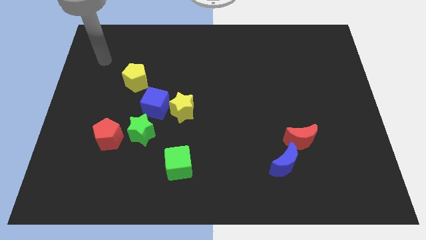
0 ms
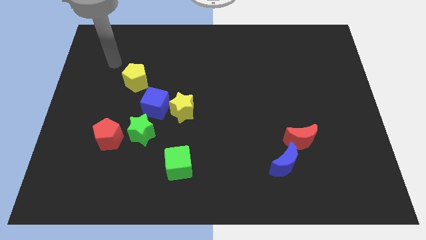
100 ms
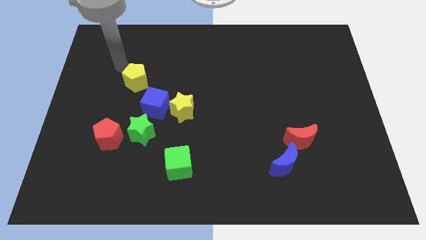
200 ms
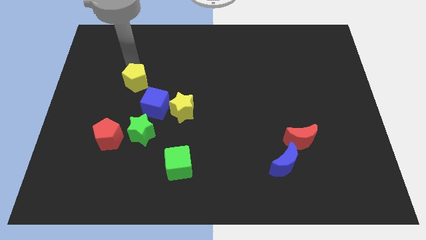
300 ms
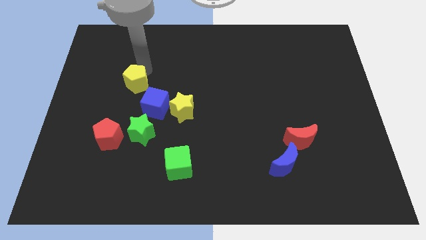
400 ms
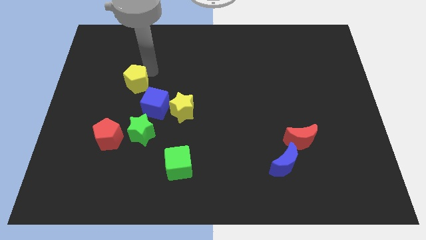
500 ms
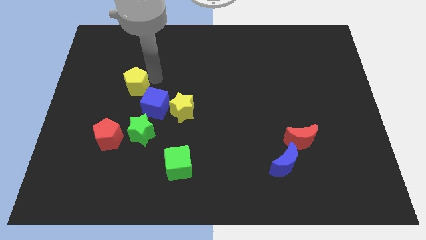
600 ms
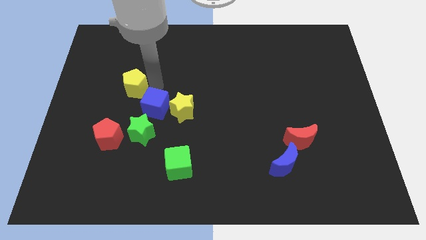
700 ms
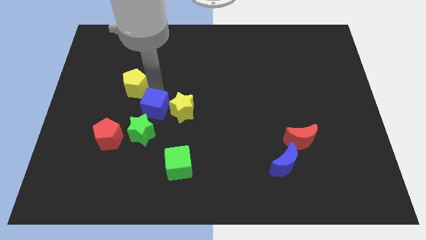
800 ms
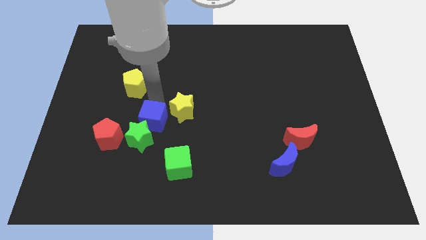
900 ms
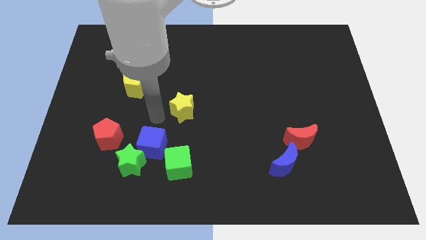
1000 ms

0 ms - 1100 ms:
move the yellow star away from the blue cube

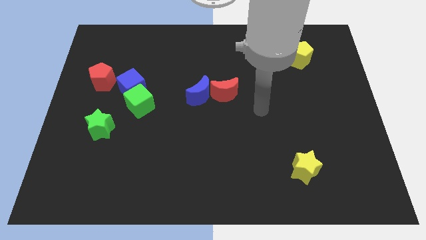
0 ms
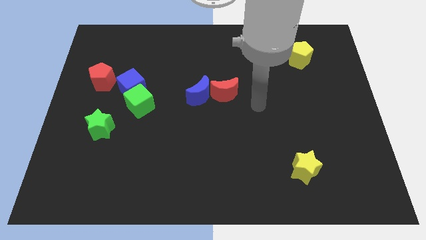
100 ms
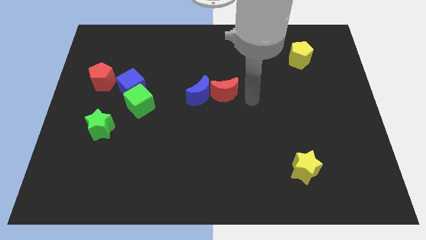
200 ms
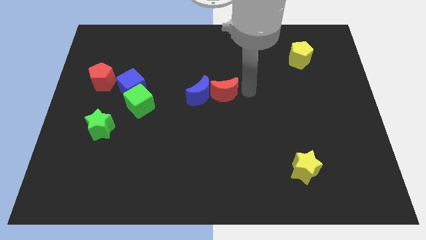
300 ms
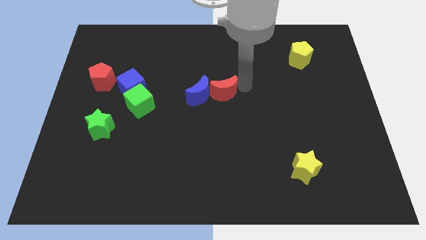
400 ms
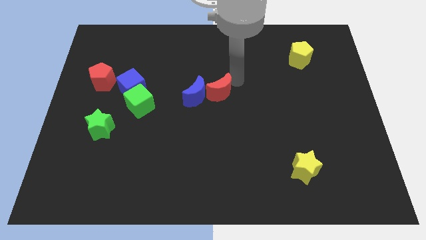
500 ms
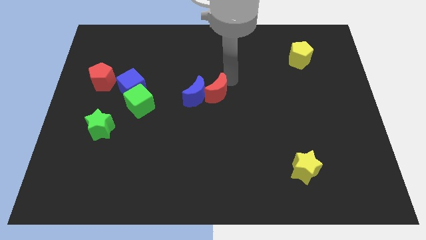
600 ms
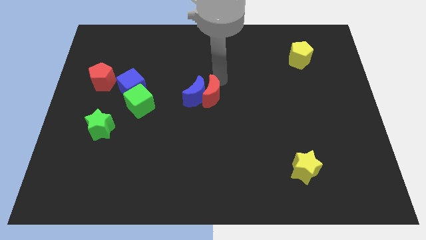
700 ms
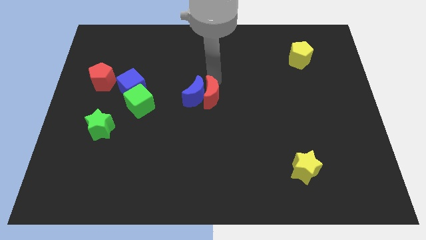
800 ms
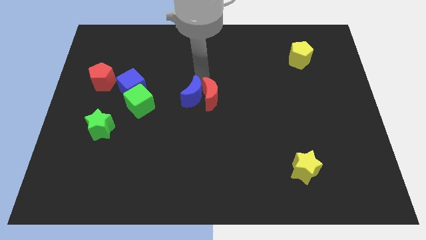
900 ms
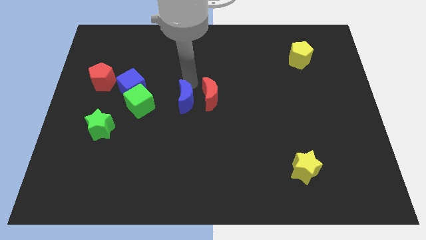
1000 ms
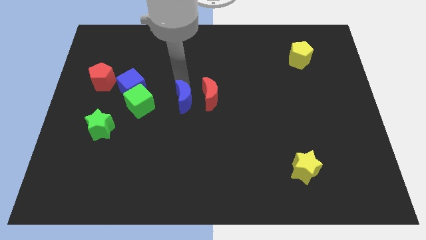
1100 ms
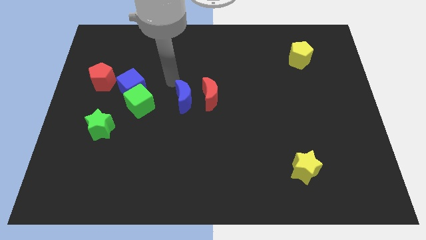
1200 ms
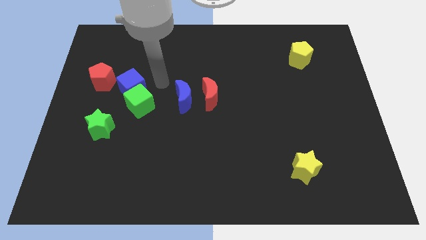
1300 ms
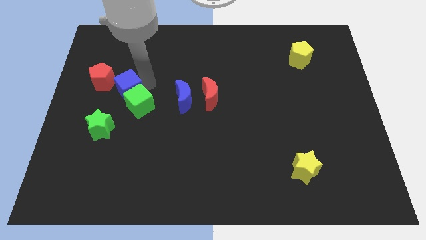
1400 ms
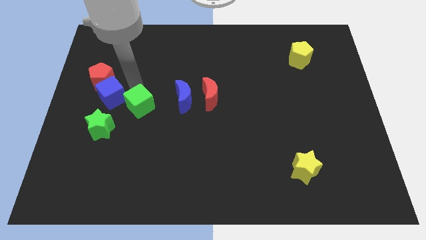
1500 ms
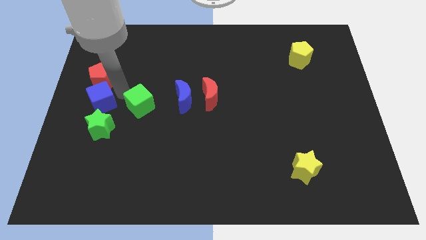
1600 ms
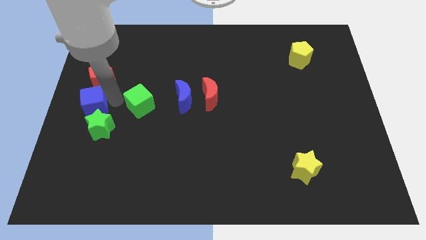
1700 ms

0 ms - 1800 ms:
separate the green cube from the blue cube

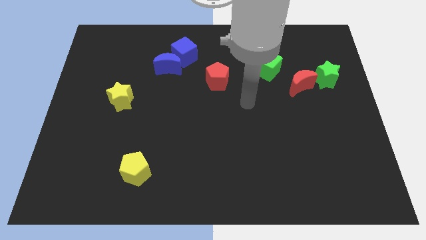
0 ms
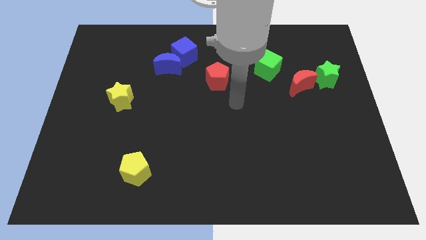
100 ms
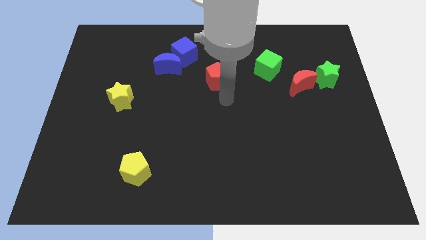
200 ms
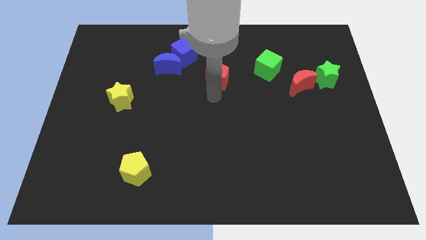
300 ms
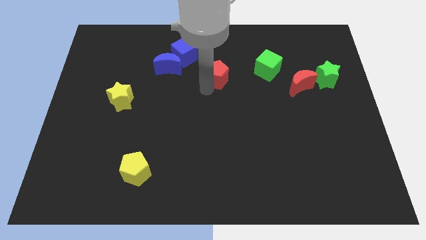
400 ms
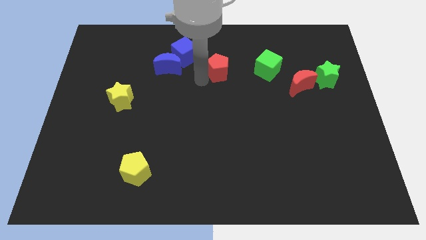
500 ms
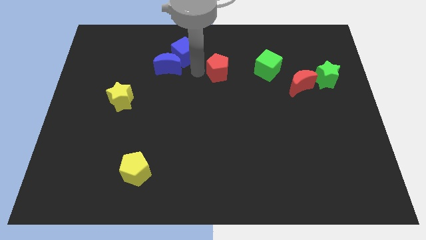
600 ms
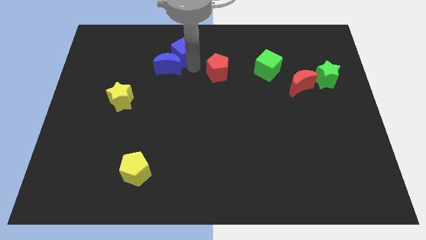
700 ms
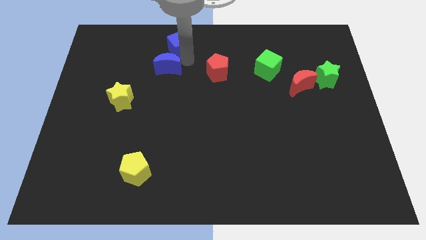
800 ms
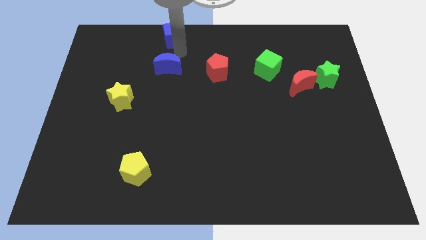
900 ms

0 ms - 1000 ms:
pull the blue moon apart from the blue cube

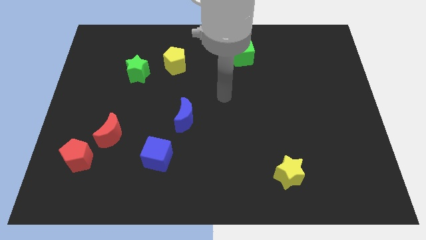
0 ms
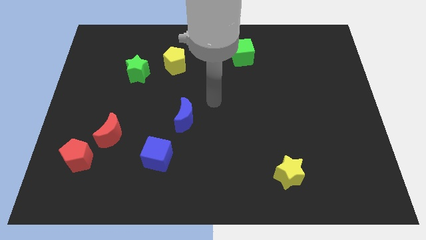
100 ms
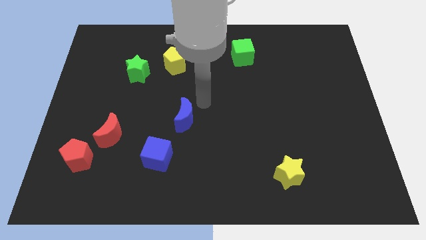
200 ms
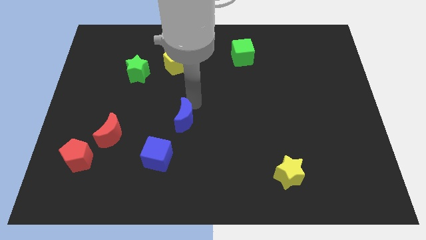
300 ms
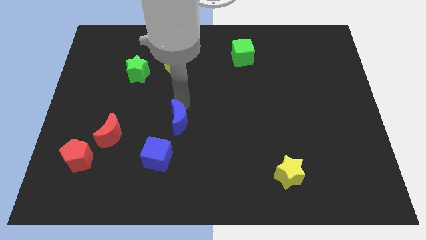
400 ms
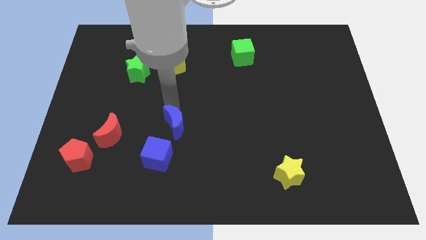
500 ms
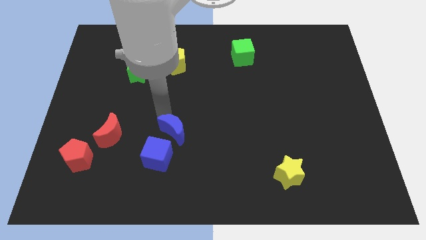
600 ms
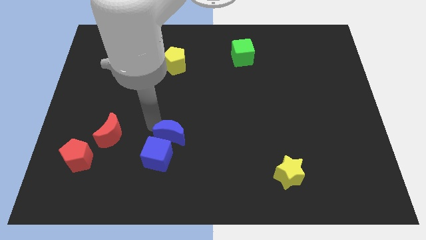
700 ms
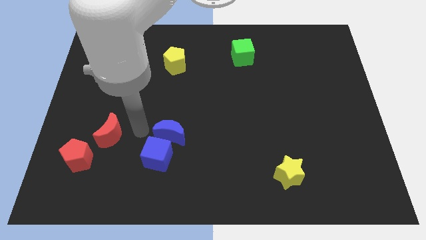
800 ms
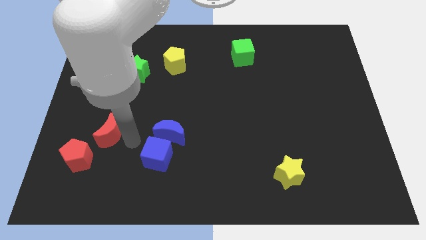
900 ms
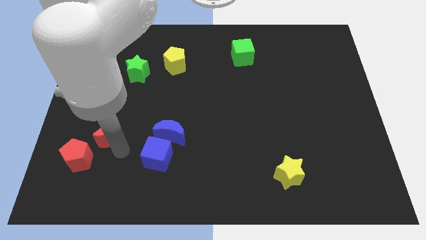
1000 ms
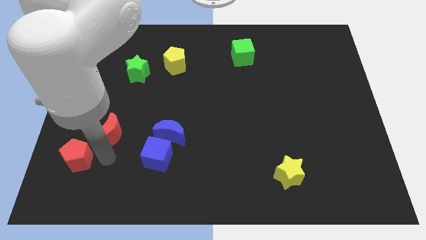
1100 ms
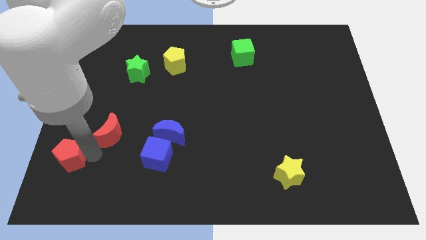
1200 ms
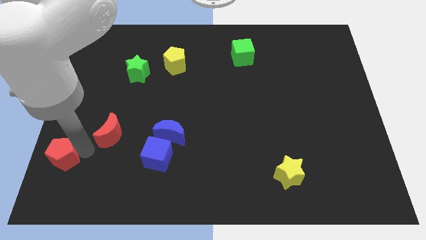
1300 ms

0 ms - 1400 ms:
pull the red moon apart from the red pentagon

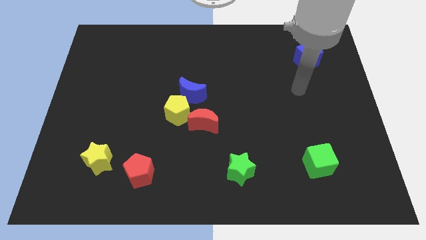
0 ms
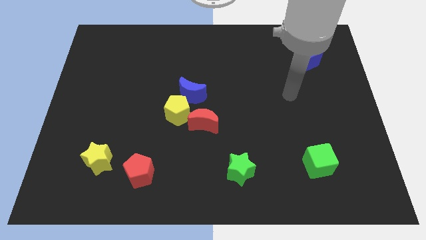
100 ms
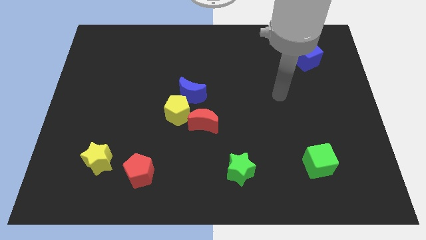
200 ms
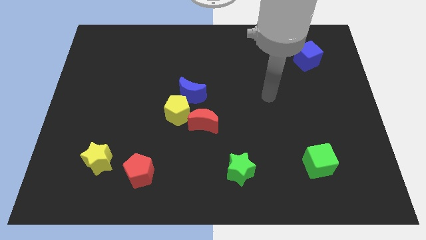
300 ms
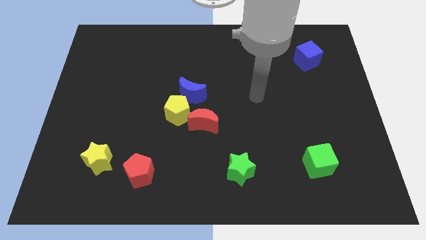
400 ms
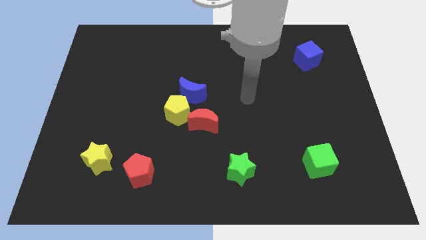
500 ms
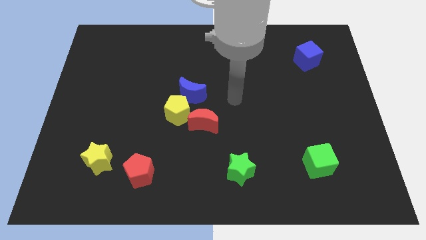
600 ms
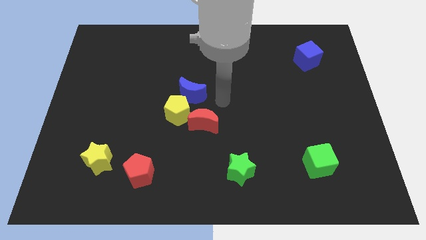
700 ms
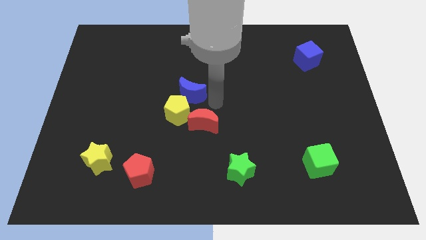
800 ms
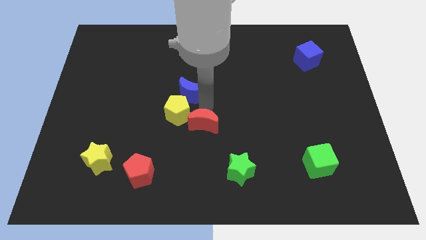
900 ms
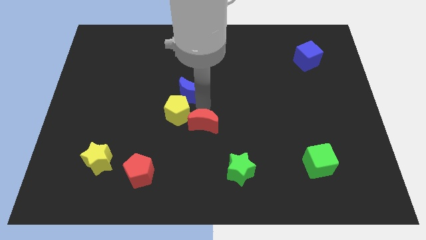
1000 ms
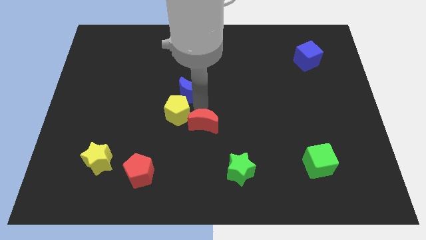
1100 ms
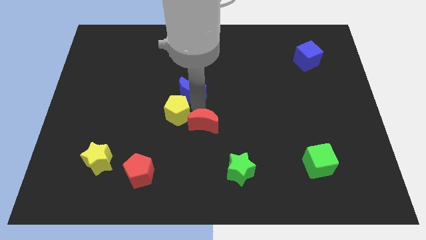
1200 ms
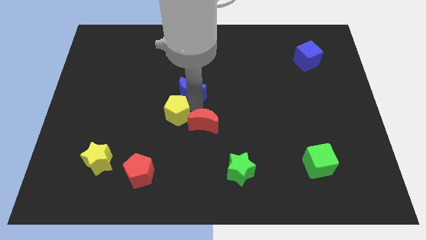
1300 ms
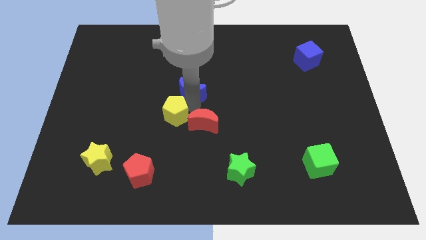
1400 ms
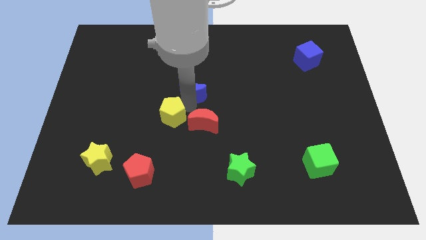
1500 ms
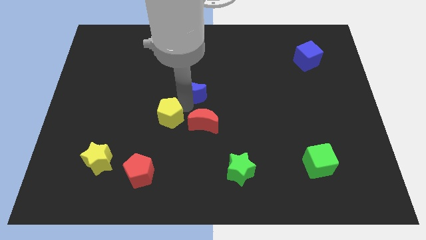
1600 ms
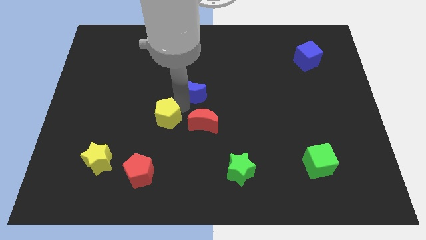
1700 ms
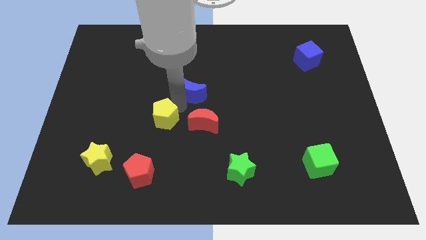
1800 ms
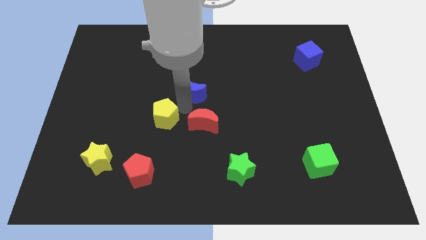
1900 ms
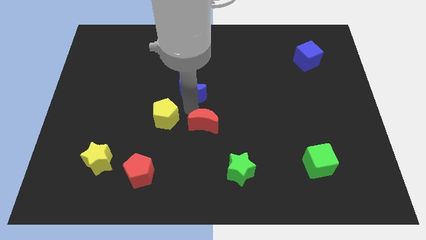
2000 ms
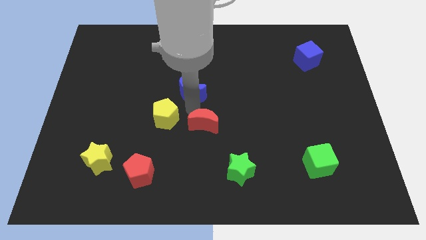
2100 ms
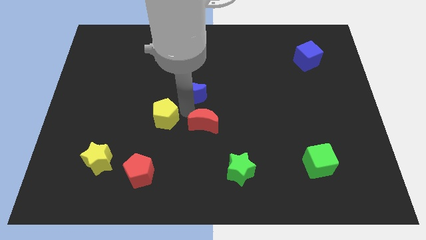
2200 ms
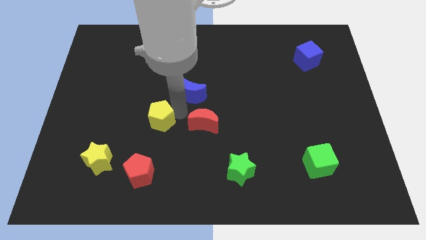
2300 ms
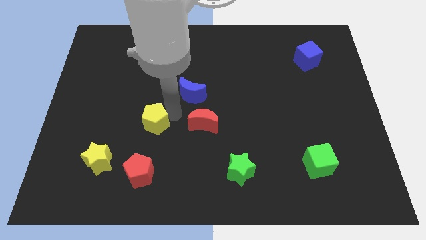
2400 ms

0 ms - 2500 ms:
move the yellow pentagon away from the blue moon and red moon

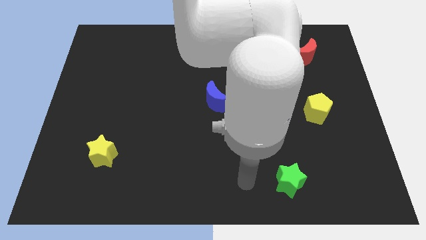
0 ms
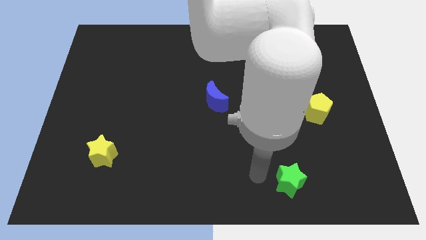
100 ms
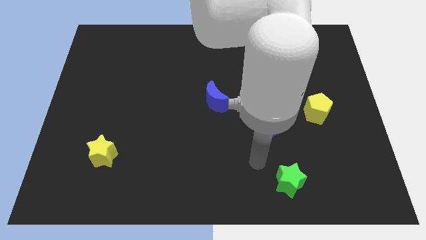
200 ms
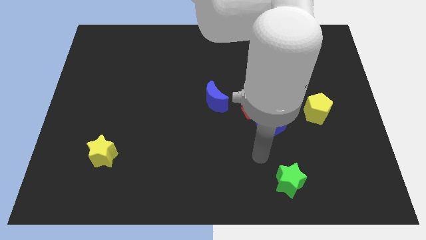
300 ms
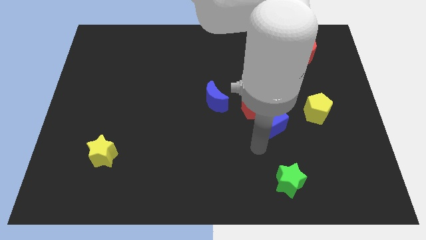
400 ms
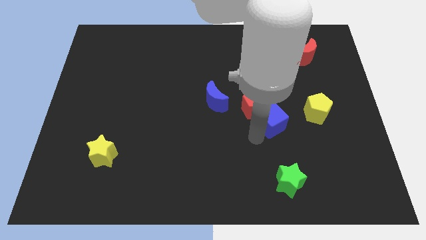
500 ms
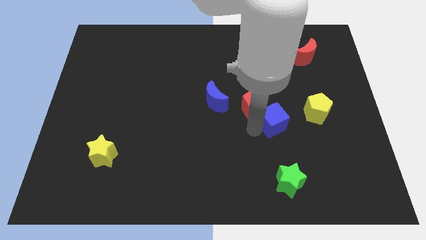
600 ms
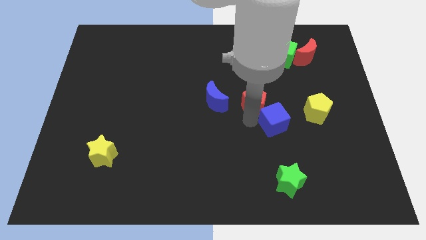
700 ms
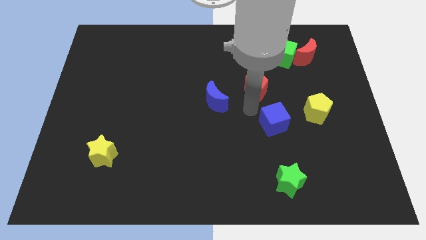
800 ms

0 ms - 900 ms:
pull the blue cube apart from the red pentagon

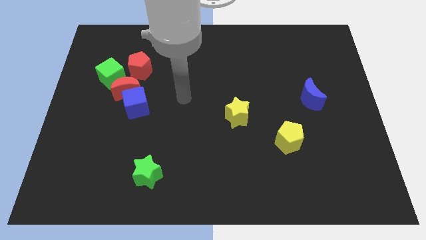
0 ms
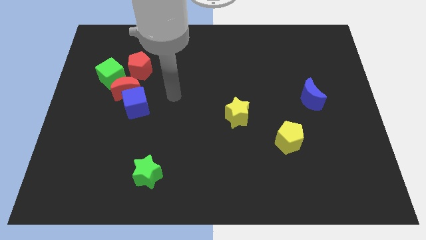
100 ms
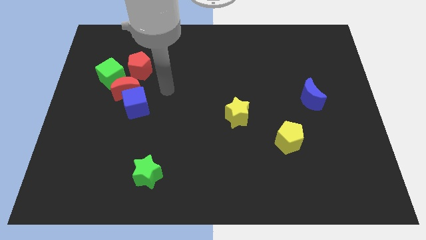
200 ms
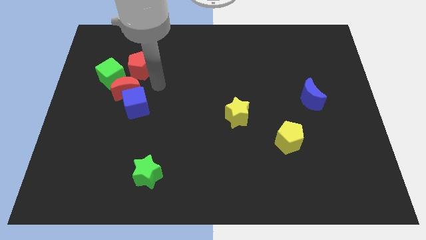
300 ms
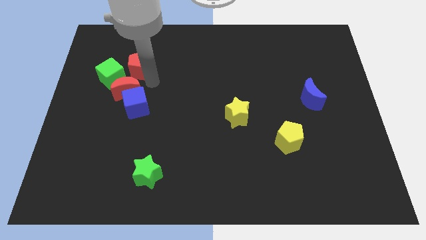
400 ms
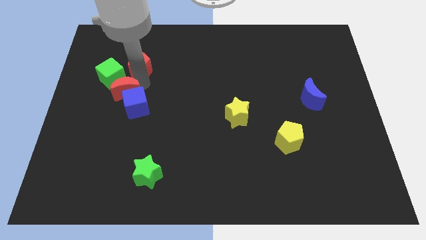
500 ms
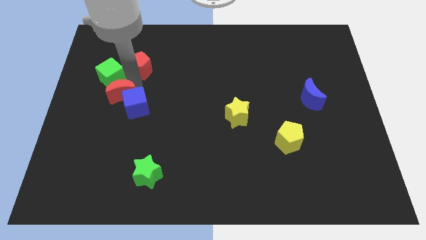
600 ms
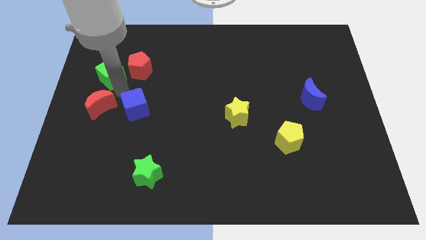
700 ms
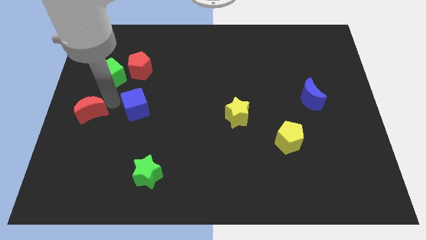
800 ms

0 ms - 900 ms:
pull the blue cube apart from the red moon
